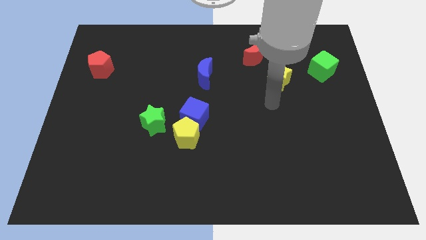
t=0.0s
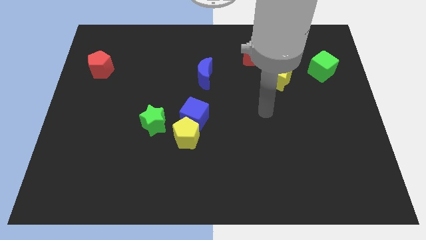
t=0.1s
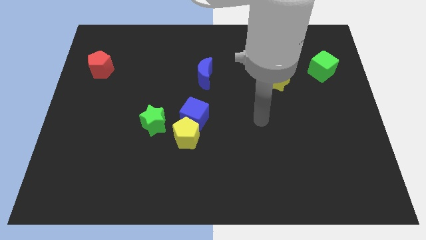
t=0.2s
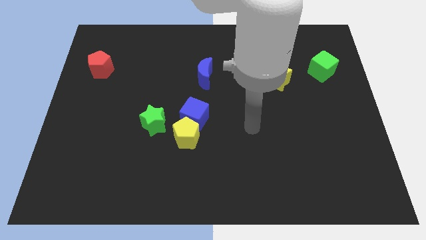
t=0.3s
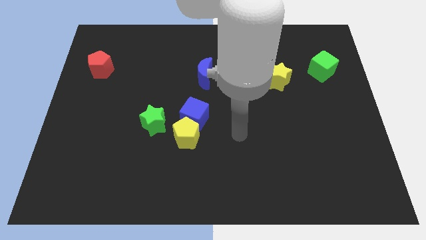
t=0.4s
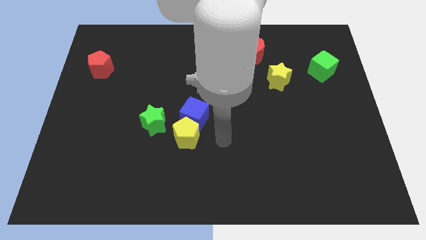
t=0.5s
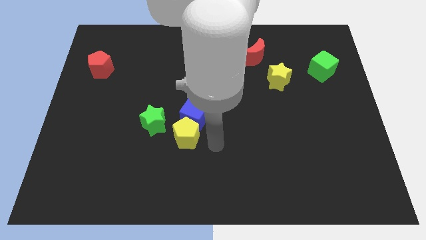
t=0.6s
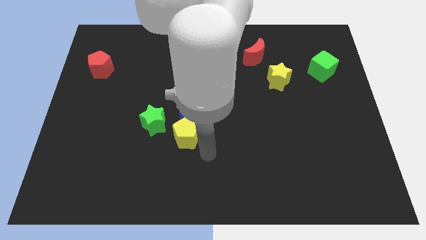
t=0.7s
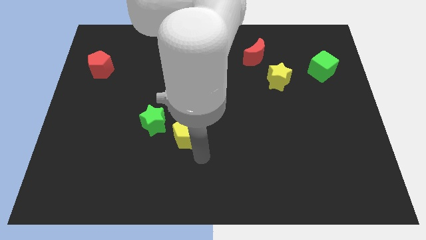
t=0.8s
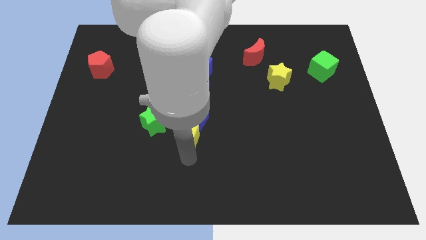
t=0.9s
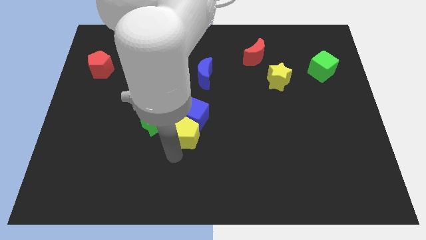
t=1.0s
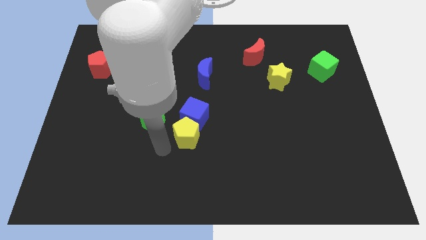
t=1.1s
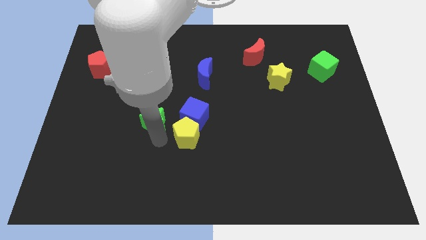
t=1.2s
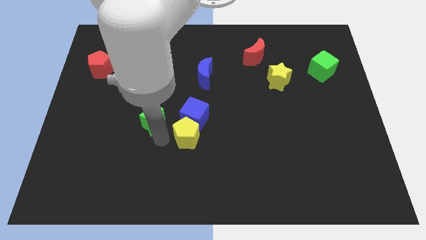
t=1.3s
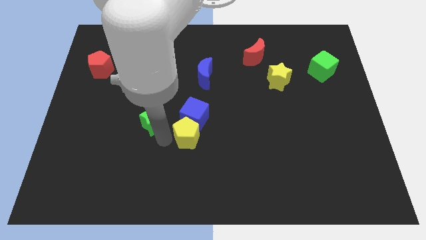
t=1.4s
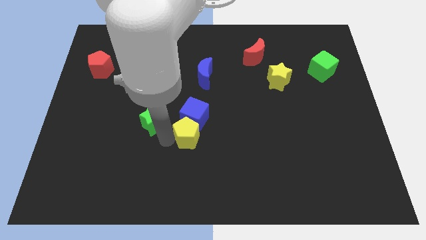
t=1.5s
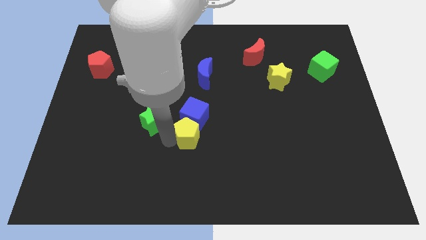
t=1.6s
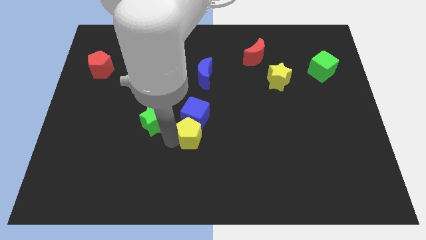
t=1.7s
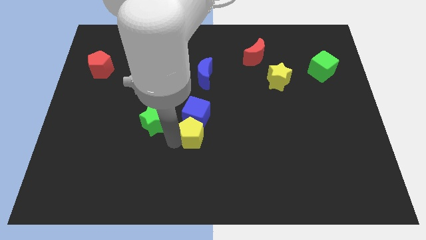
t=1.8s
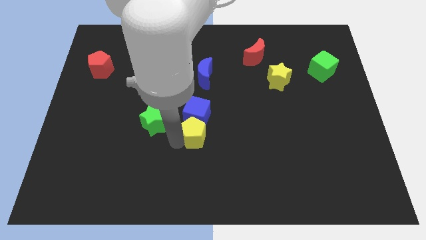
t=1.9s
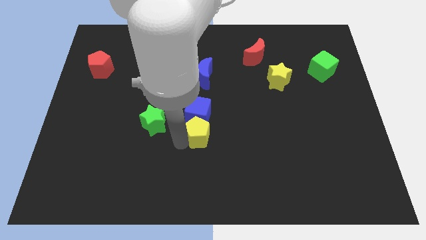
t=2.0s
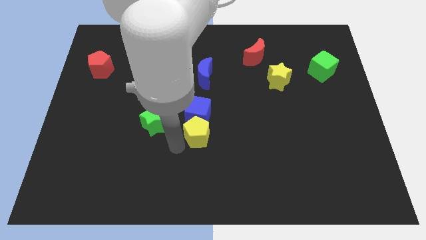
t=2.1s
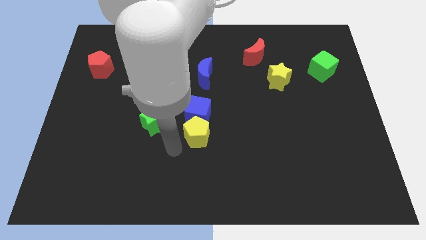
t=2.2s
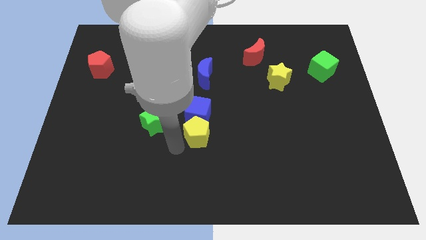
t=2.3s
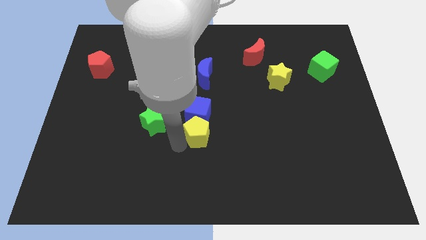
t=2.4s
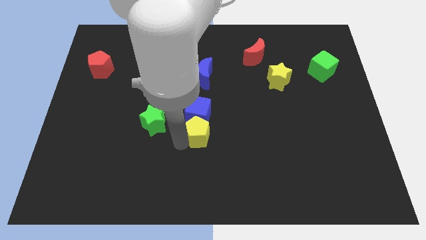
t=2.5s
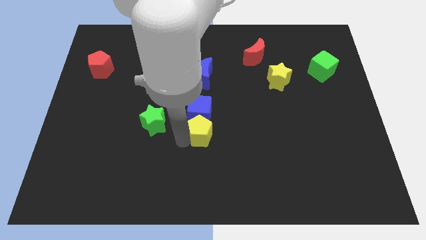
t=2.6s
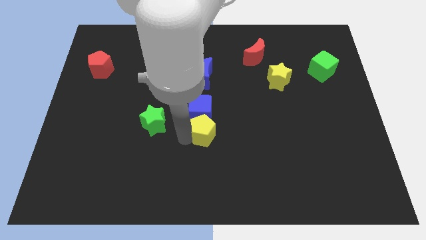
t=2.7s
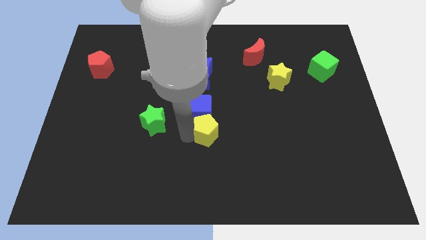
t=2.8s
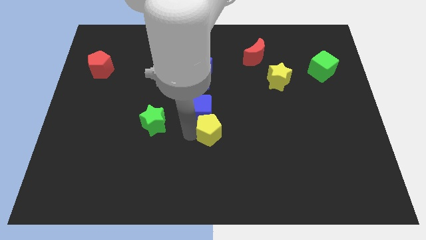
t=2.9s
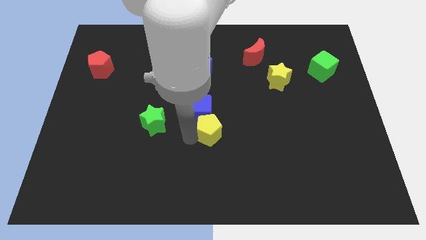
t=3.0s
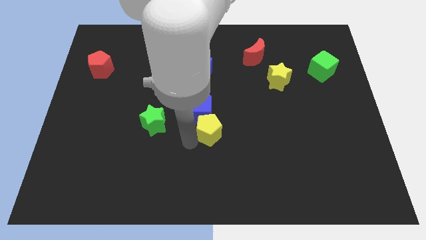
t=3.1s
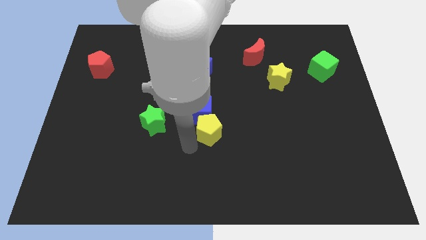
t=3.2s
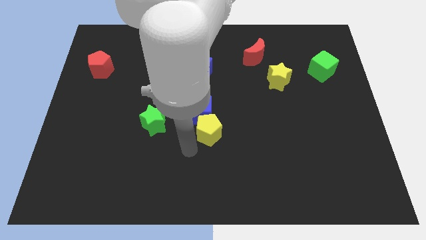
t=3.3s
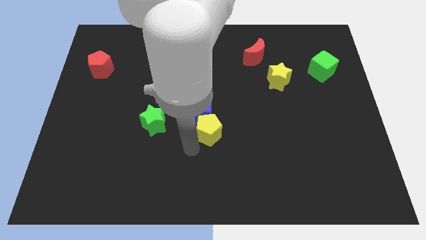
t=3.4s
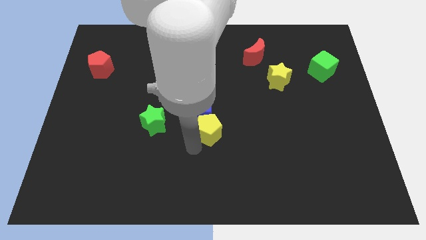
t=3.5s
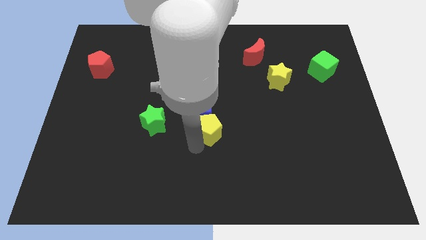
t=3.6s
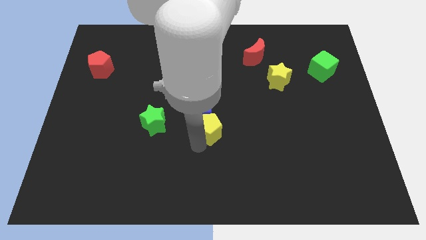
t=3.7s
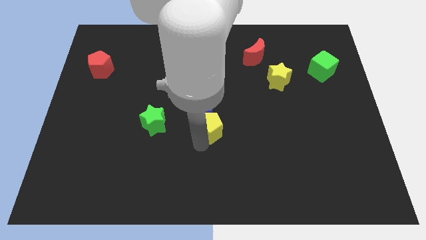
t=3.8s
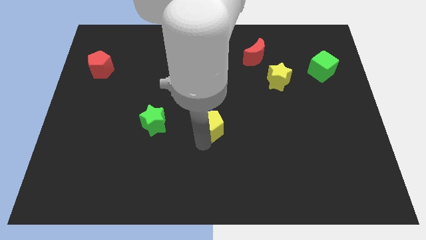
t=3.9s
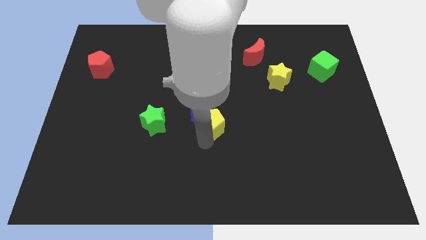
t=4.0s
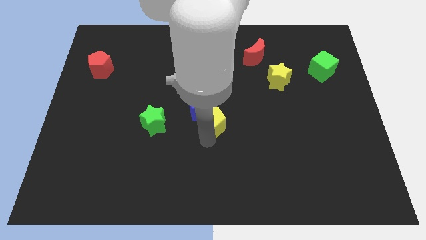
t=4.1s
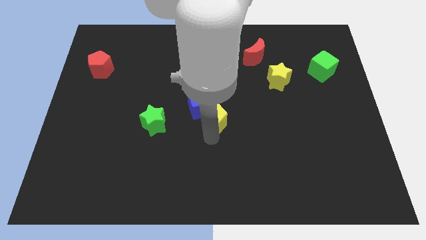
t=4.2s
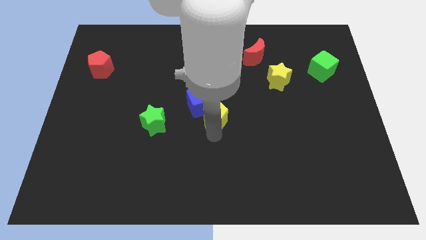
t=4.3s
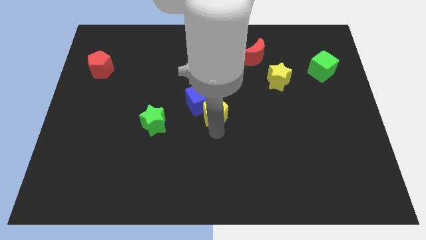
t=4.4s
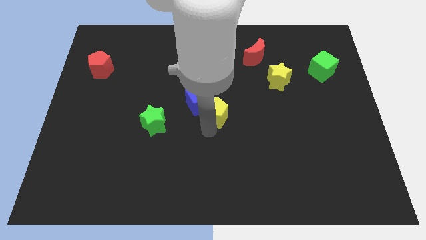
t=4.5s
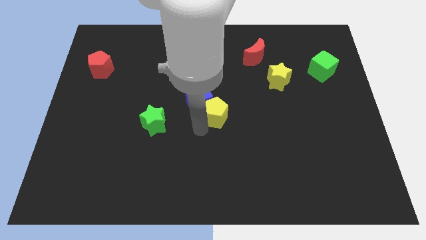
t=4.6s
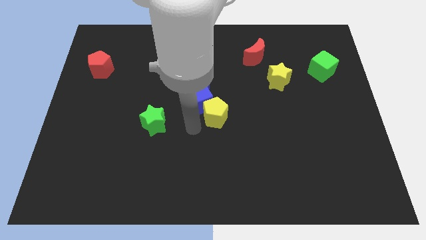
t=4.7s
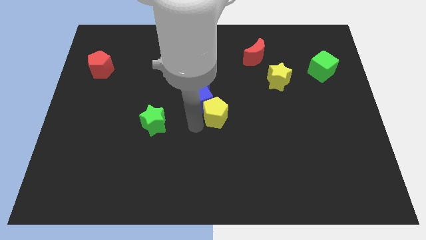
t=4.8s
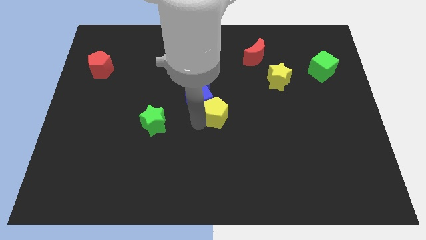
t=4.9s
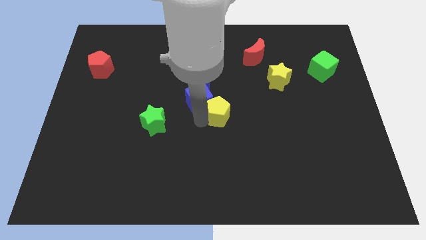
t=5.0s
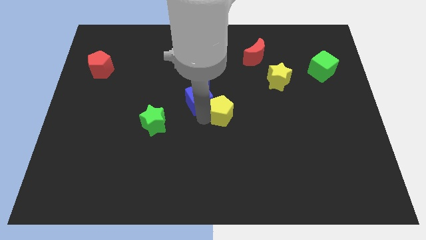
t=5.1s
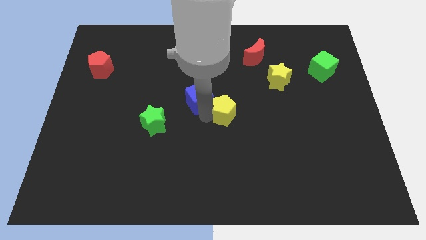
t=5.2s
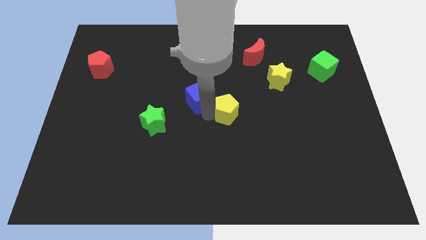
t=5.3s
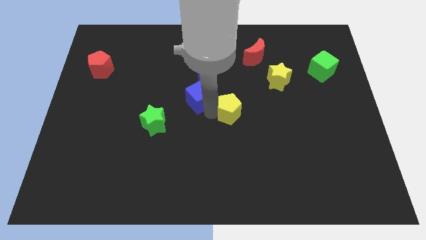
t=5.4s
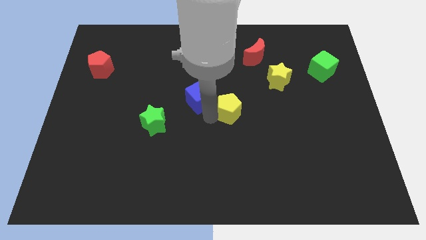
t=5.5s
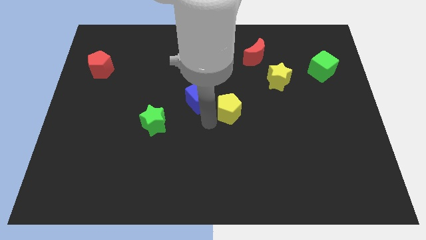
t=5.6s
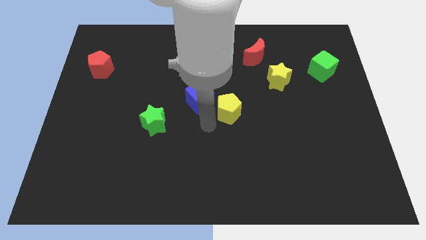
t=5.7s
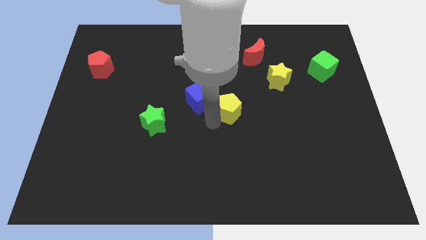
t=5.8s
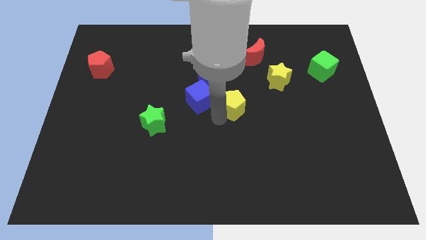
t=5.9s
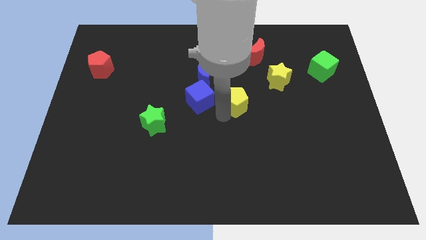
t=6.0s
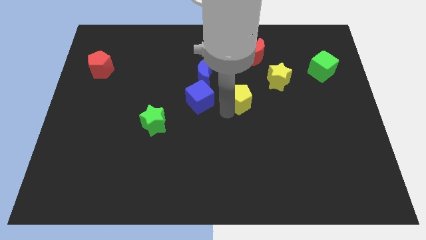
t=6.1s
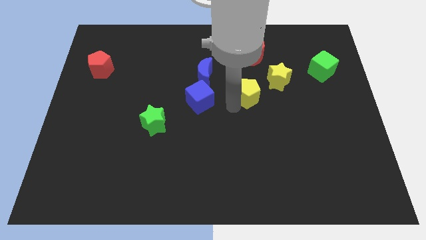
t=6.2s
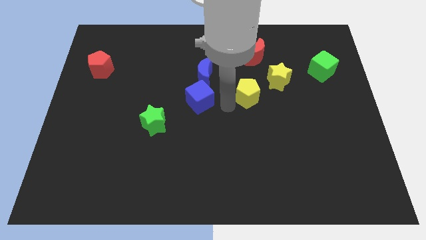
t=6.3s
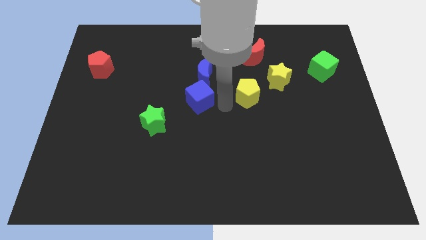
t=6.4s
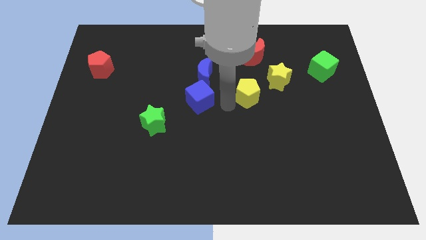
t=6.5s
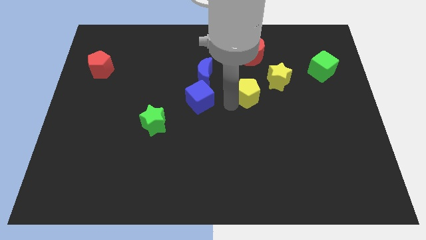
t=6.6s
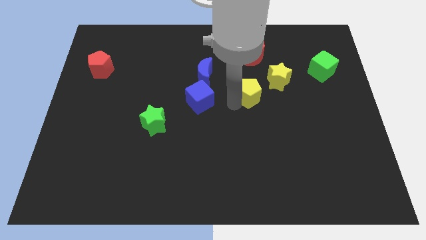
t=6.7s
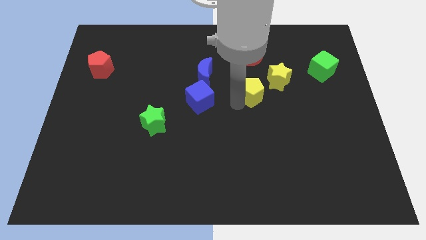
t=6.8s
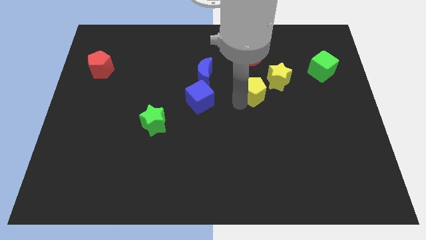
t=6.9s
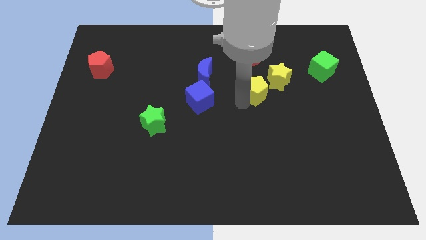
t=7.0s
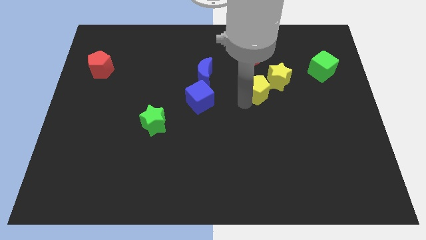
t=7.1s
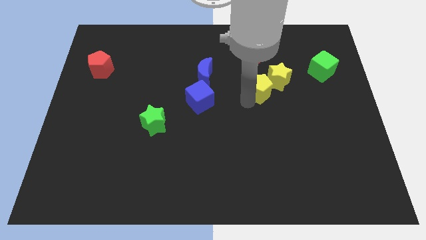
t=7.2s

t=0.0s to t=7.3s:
slide the yellow pentagon next to the yellow star
